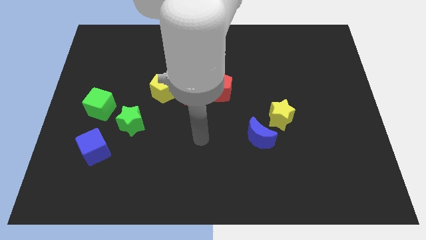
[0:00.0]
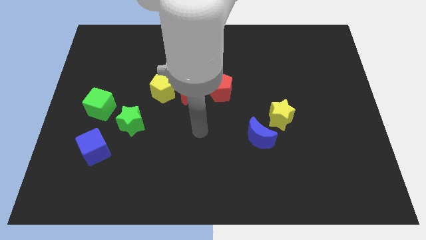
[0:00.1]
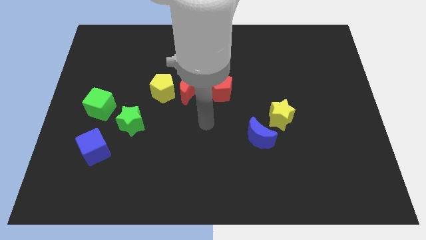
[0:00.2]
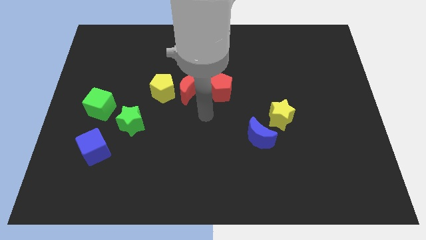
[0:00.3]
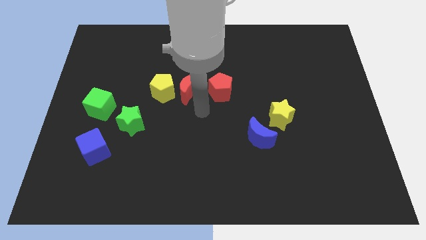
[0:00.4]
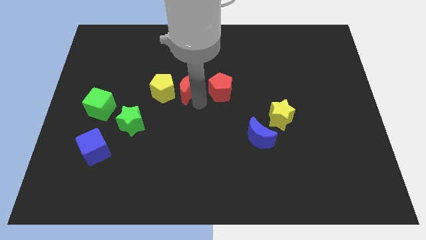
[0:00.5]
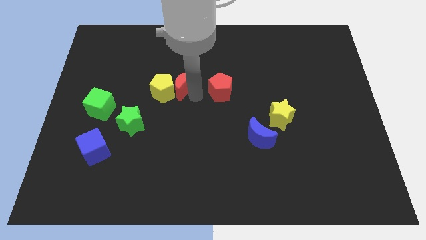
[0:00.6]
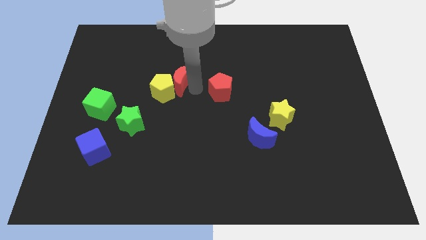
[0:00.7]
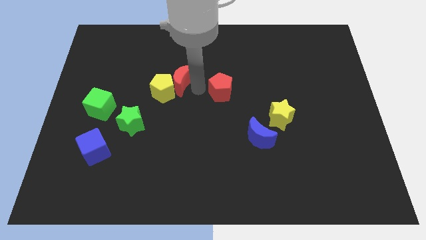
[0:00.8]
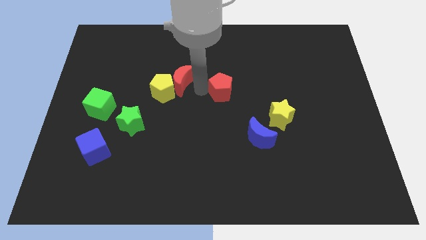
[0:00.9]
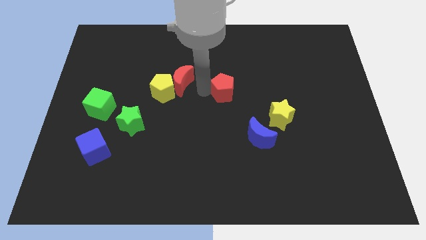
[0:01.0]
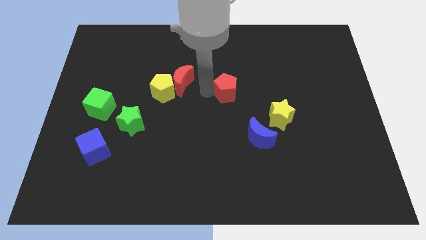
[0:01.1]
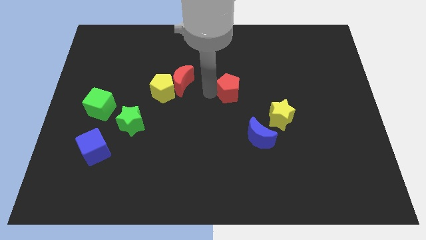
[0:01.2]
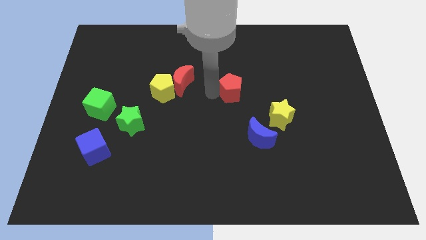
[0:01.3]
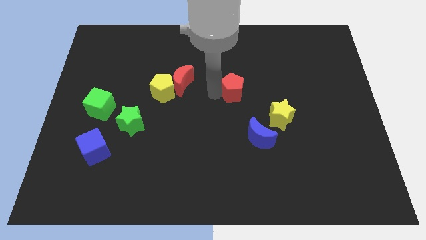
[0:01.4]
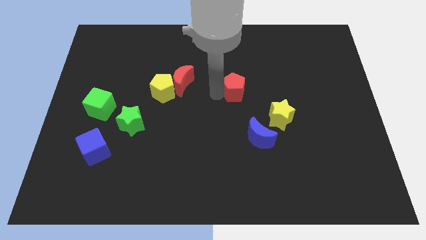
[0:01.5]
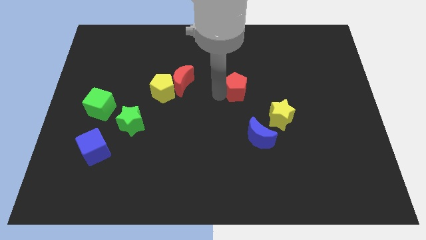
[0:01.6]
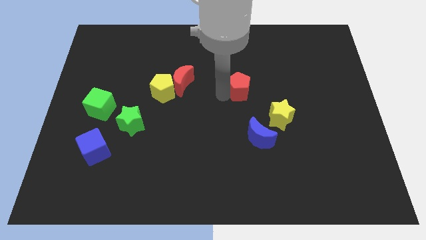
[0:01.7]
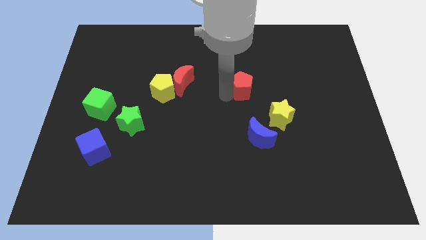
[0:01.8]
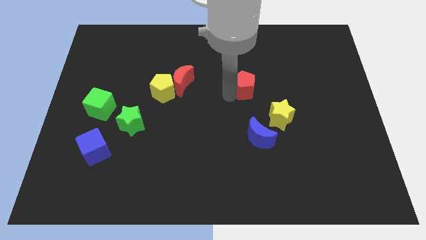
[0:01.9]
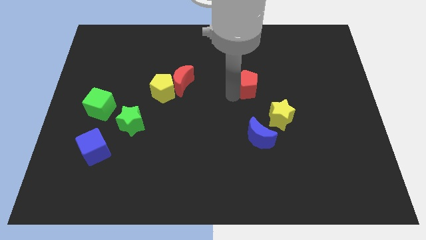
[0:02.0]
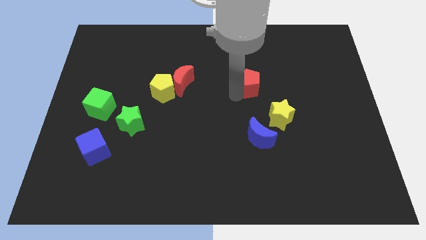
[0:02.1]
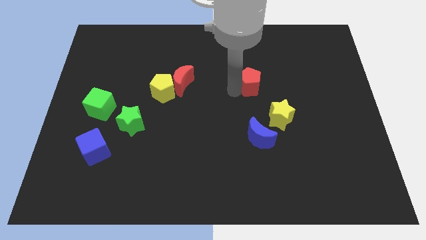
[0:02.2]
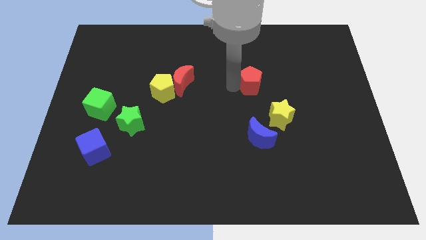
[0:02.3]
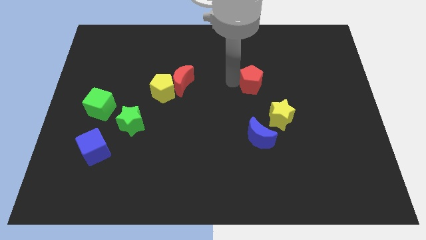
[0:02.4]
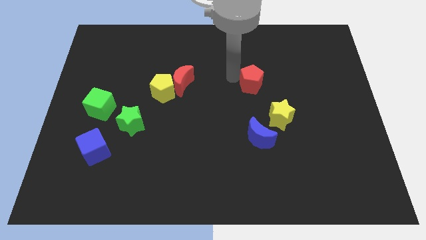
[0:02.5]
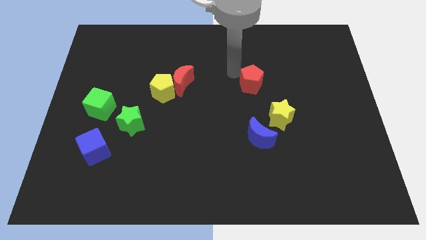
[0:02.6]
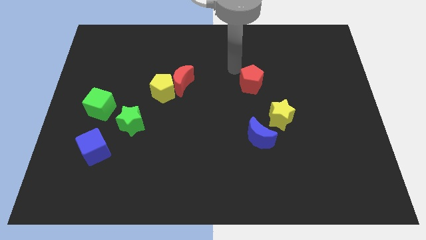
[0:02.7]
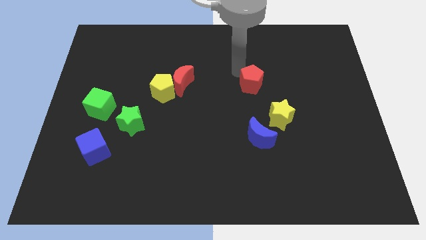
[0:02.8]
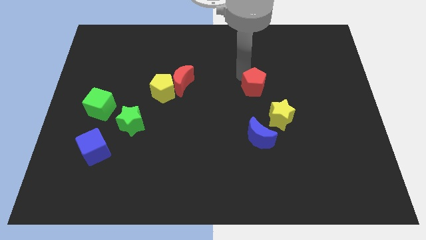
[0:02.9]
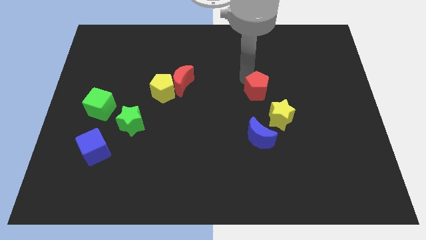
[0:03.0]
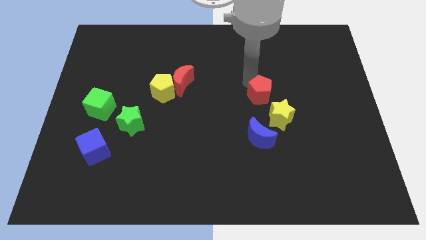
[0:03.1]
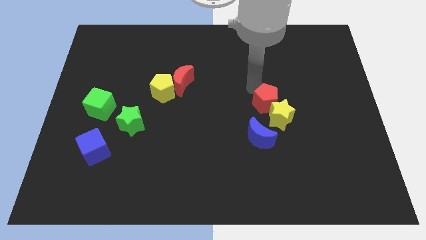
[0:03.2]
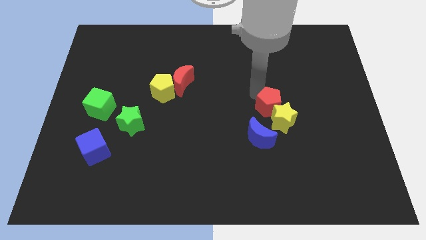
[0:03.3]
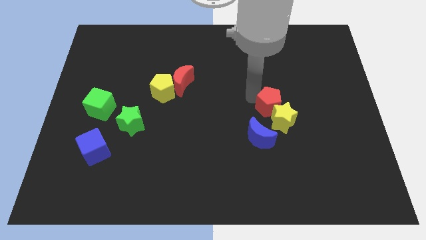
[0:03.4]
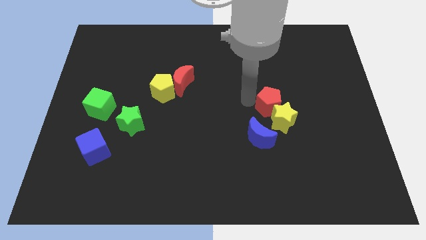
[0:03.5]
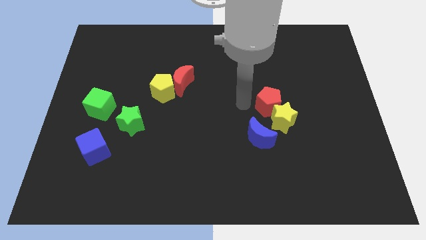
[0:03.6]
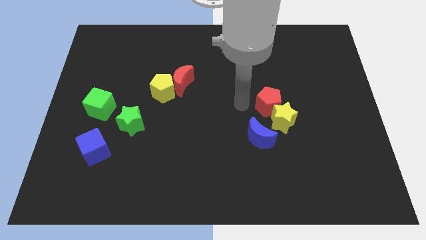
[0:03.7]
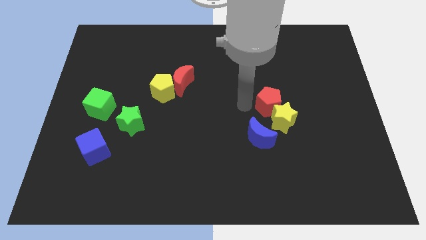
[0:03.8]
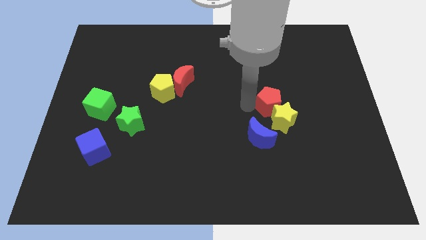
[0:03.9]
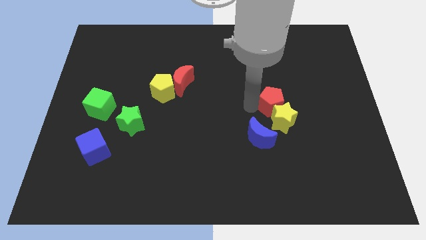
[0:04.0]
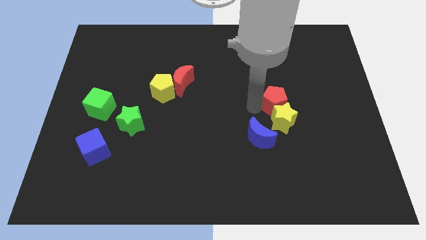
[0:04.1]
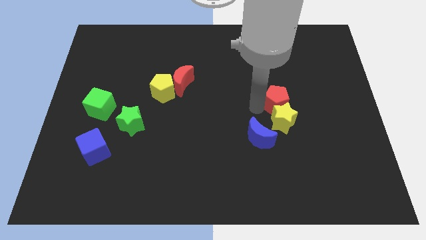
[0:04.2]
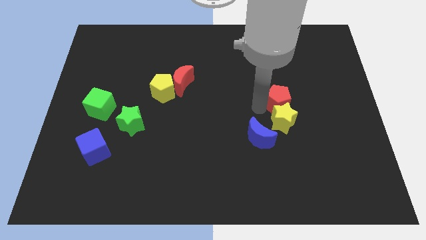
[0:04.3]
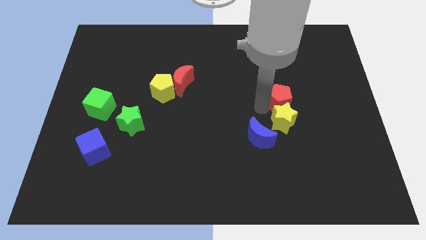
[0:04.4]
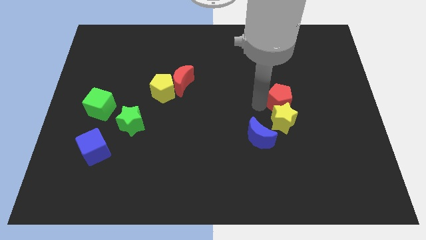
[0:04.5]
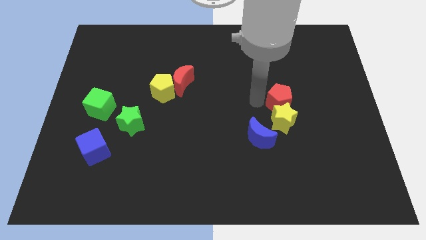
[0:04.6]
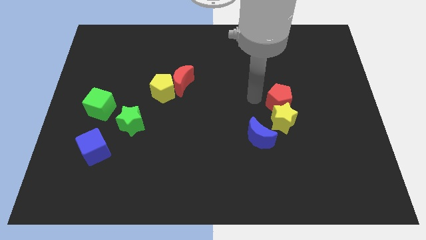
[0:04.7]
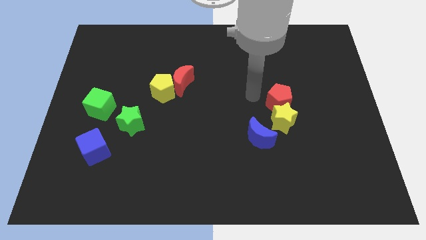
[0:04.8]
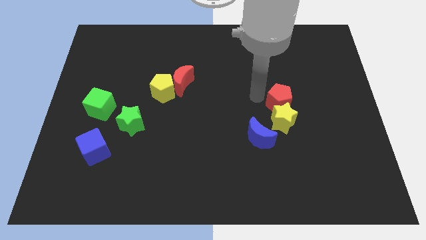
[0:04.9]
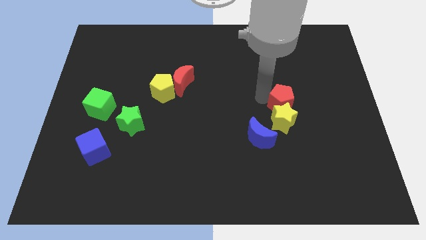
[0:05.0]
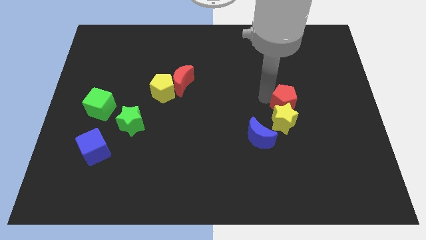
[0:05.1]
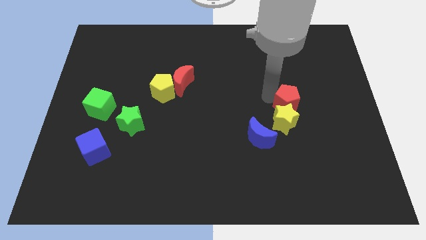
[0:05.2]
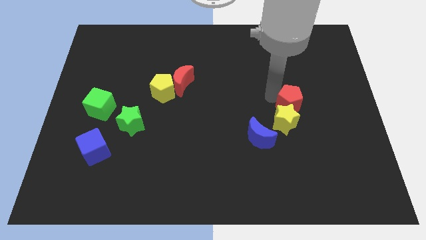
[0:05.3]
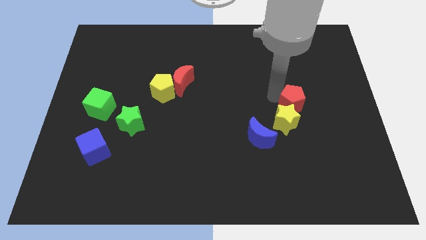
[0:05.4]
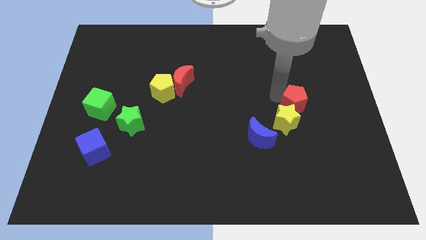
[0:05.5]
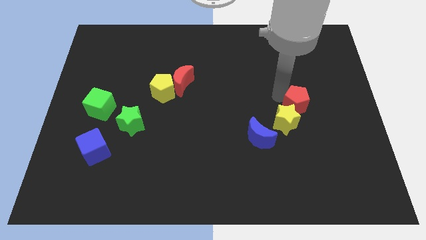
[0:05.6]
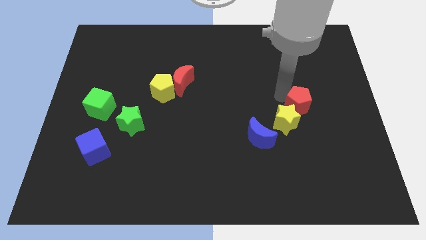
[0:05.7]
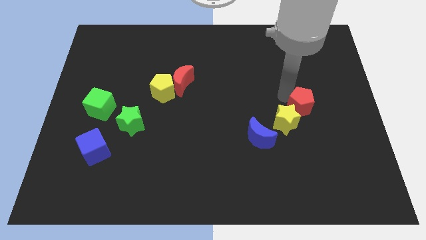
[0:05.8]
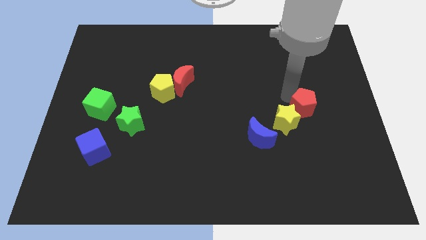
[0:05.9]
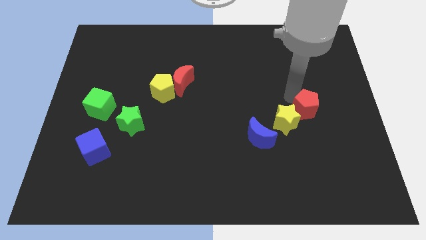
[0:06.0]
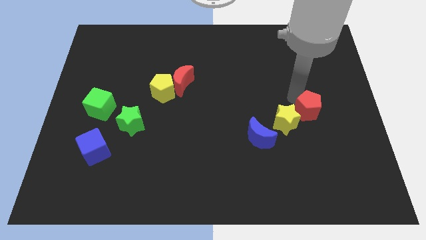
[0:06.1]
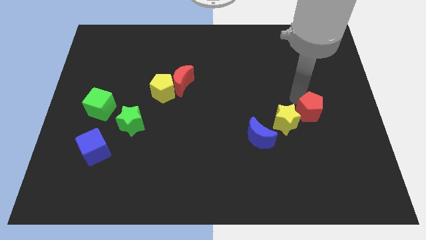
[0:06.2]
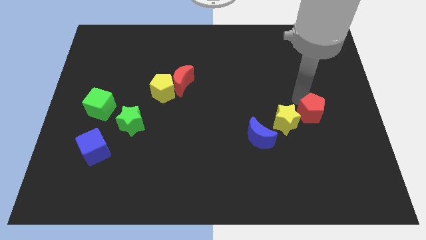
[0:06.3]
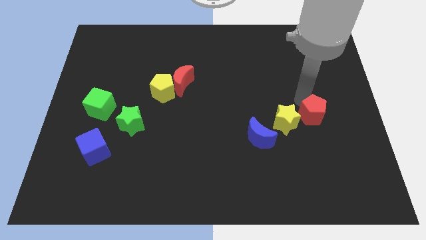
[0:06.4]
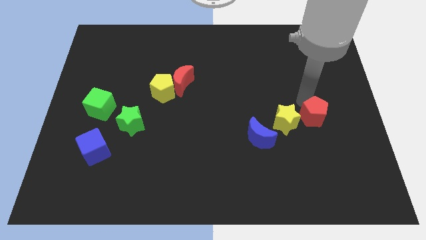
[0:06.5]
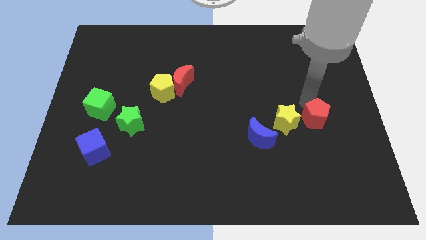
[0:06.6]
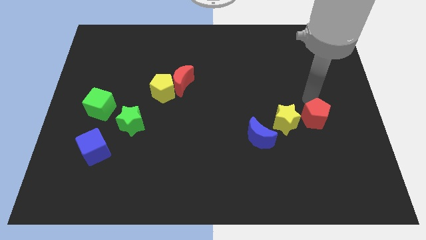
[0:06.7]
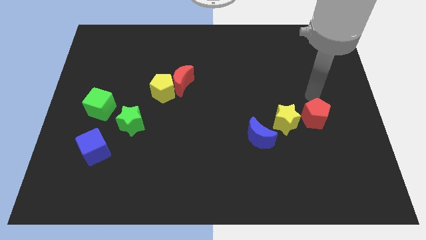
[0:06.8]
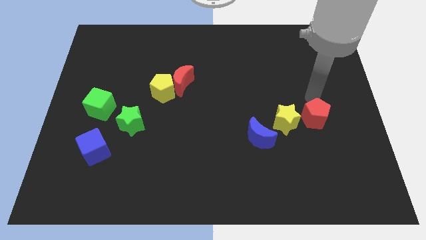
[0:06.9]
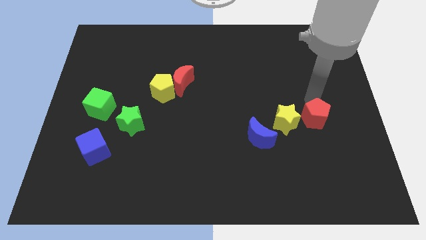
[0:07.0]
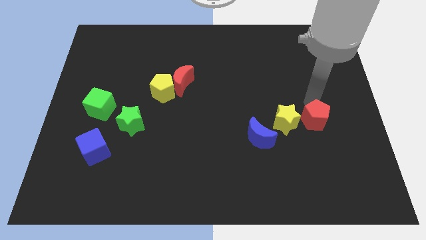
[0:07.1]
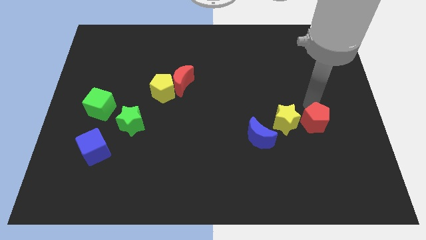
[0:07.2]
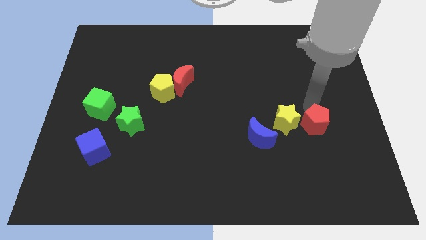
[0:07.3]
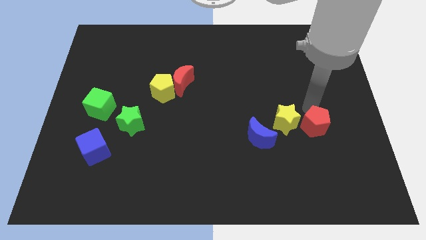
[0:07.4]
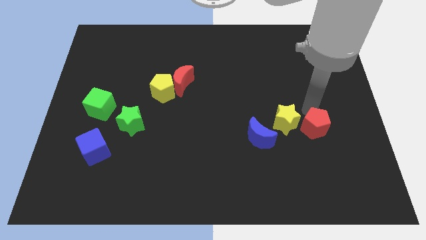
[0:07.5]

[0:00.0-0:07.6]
move the red pentagon down and to the right

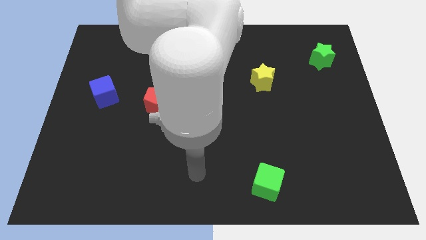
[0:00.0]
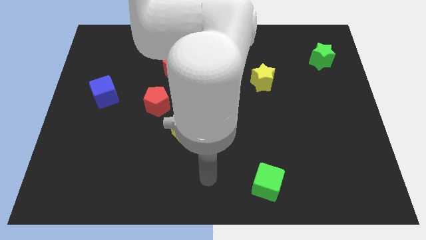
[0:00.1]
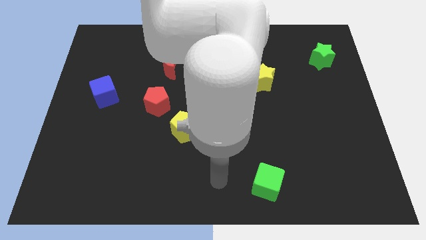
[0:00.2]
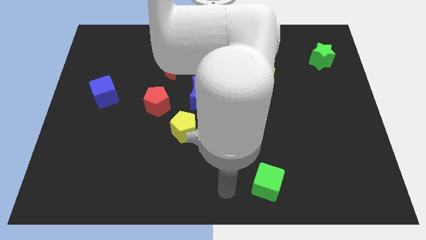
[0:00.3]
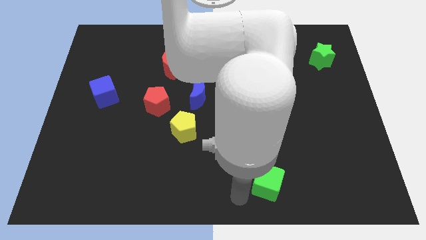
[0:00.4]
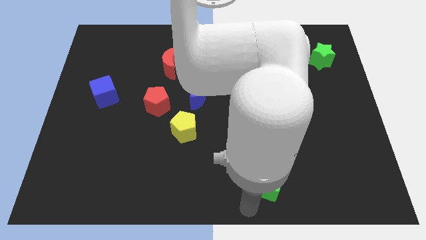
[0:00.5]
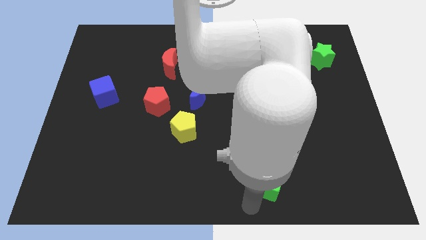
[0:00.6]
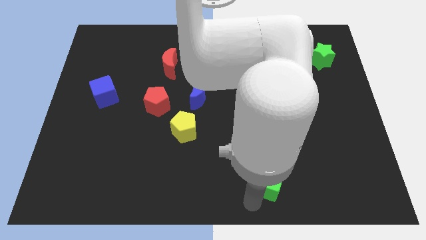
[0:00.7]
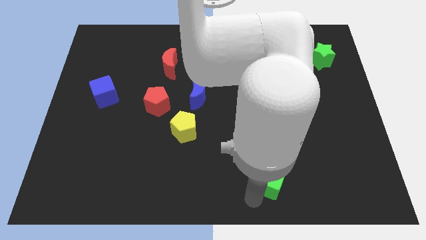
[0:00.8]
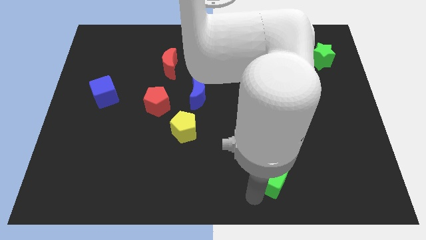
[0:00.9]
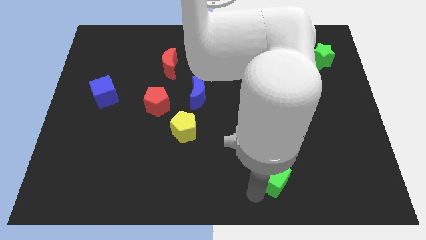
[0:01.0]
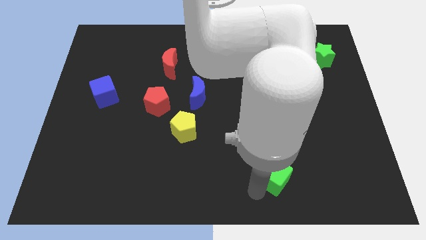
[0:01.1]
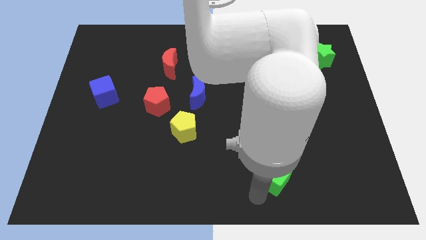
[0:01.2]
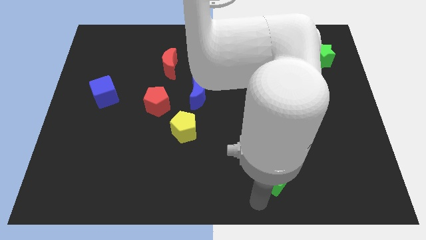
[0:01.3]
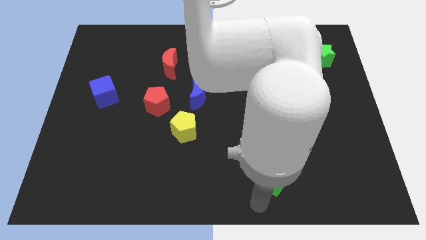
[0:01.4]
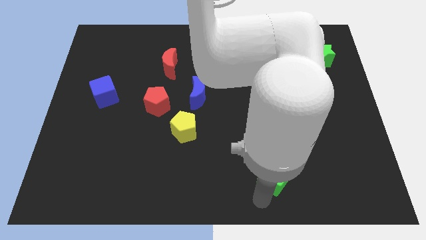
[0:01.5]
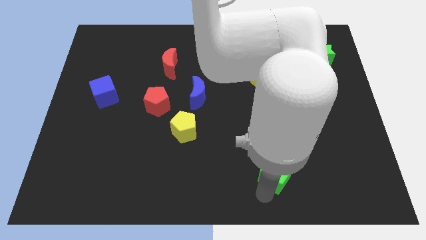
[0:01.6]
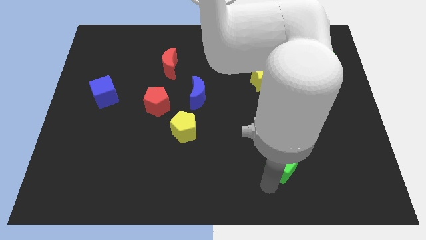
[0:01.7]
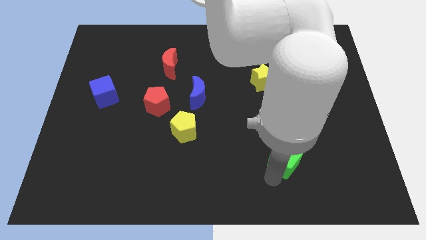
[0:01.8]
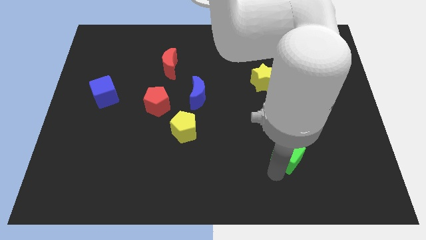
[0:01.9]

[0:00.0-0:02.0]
push the green cube diagonally upwards and right somewhat
